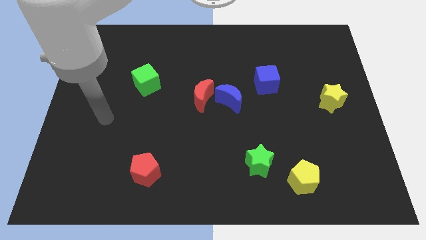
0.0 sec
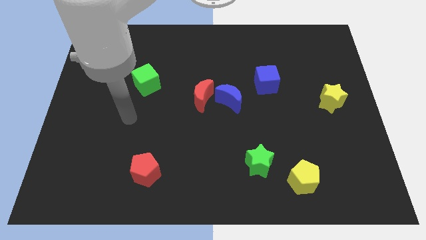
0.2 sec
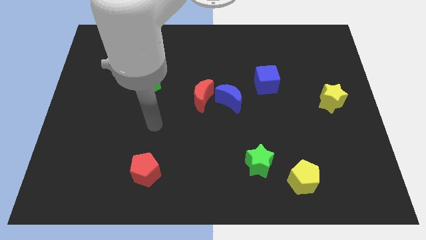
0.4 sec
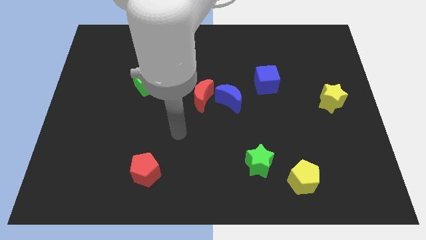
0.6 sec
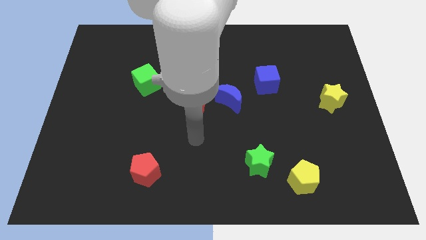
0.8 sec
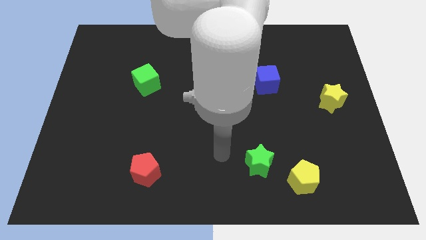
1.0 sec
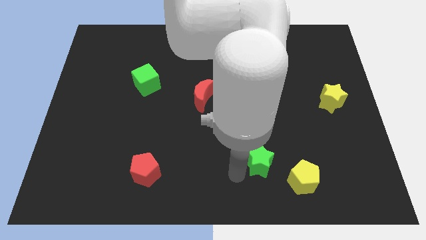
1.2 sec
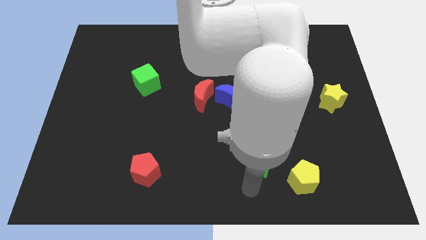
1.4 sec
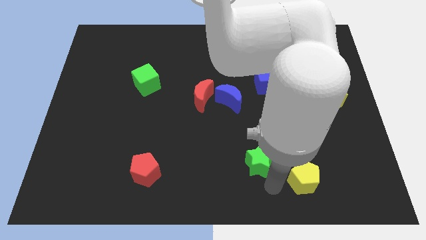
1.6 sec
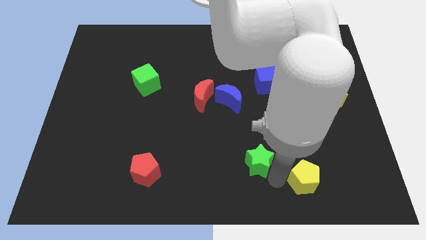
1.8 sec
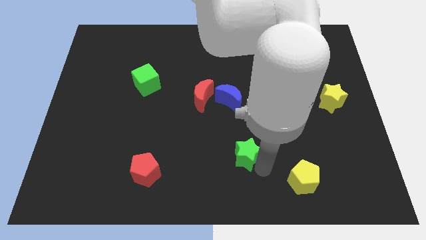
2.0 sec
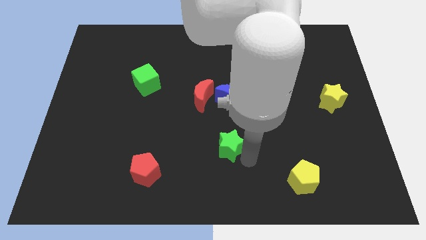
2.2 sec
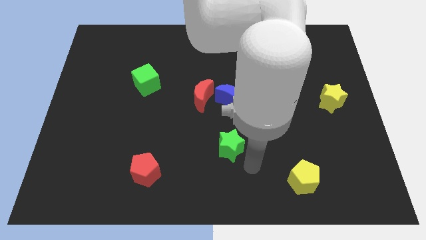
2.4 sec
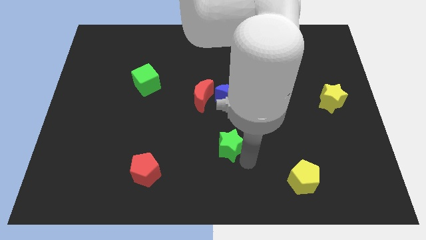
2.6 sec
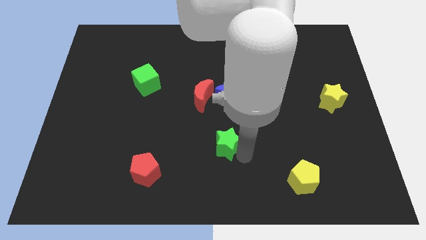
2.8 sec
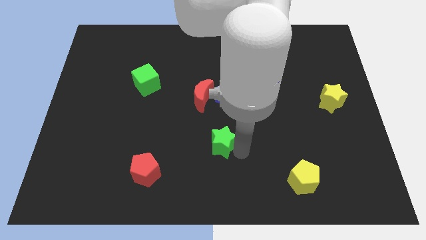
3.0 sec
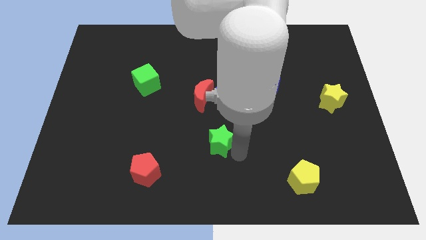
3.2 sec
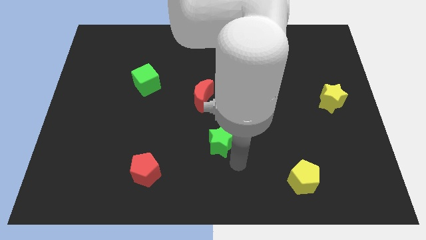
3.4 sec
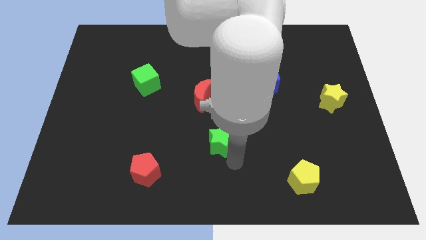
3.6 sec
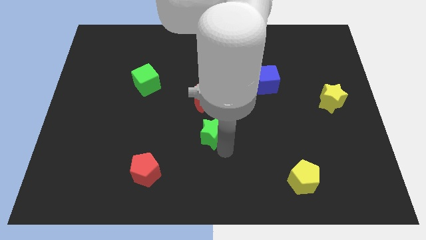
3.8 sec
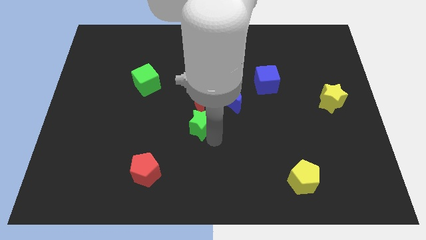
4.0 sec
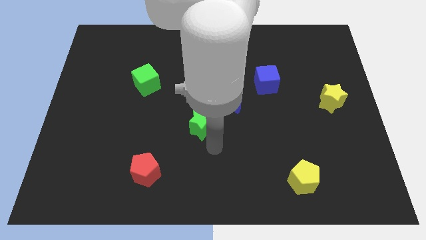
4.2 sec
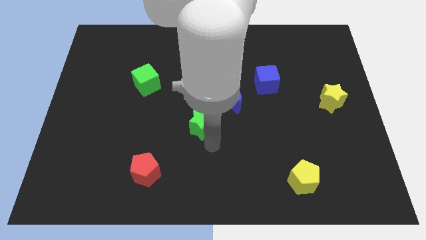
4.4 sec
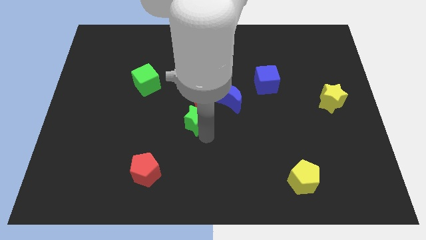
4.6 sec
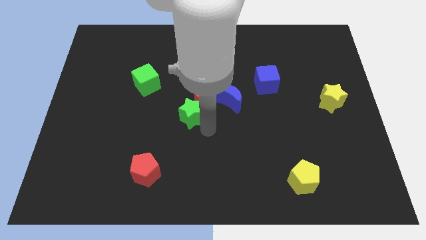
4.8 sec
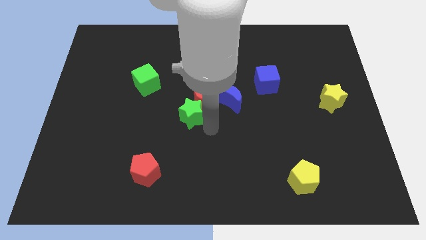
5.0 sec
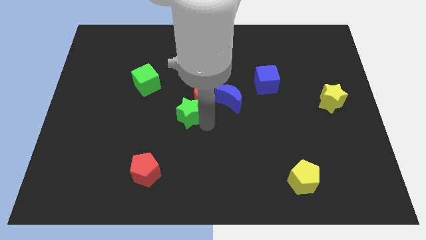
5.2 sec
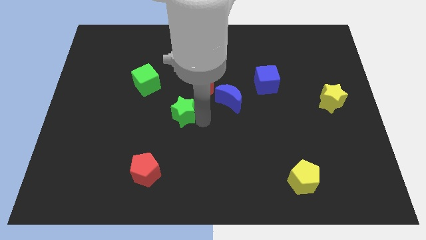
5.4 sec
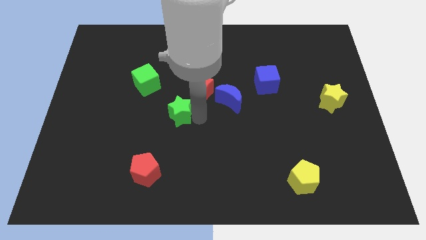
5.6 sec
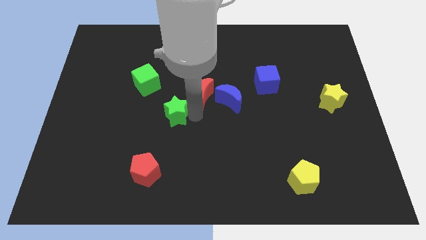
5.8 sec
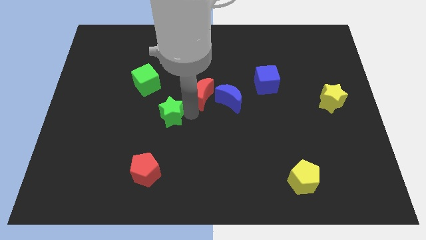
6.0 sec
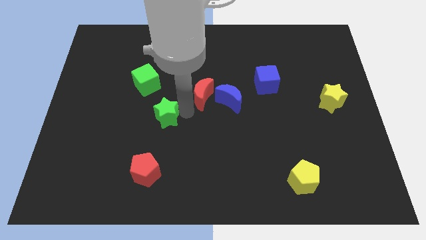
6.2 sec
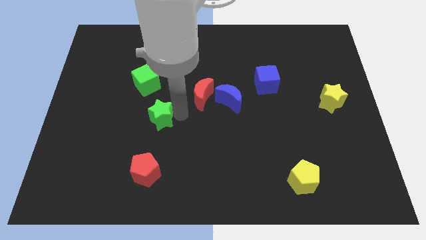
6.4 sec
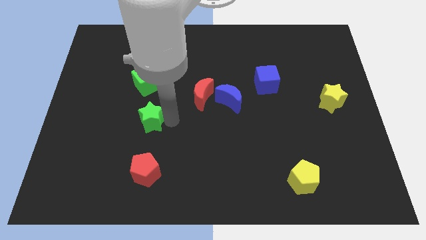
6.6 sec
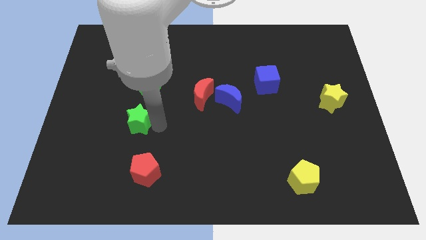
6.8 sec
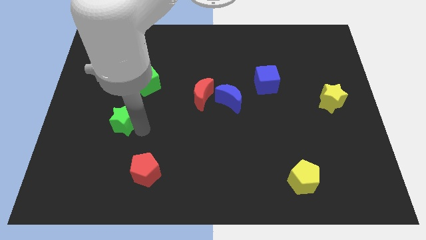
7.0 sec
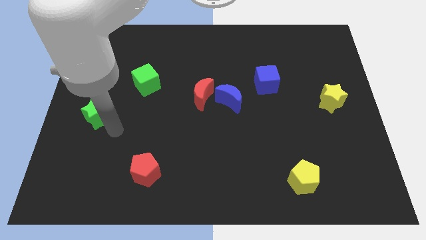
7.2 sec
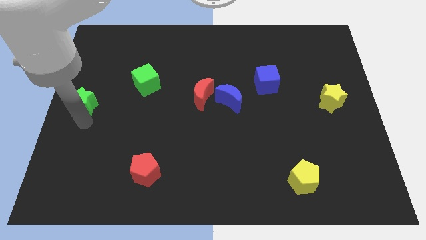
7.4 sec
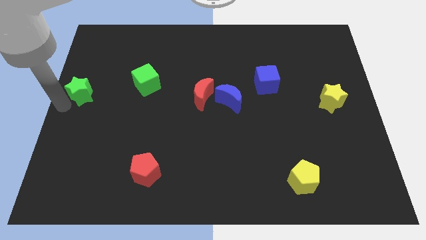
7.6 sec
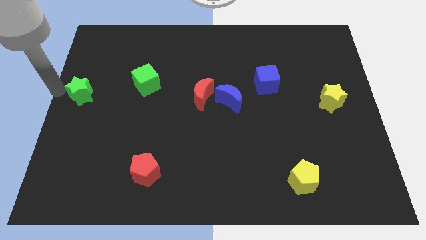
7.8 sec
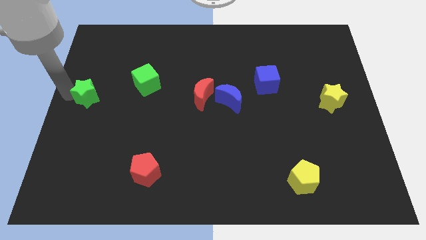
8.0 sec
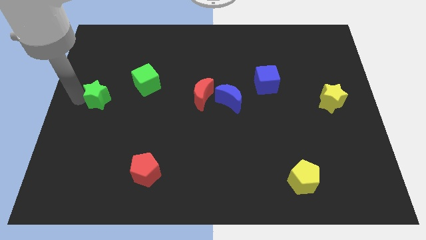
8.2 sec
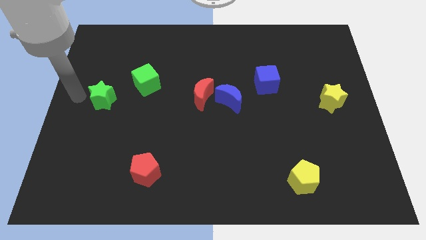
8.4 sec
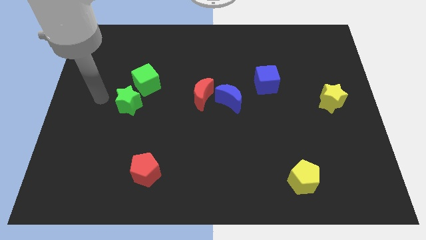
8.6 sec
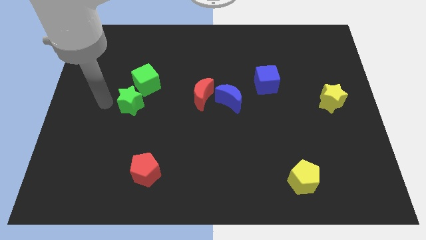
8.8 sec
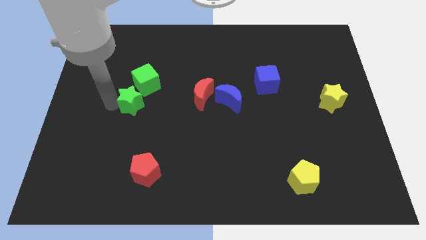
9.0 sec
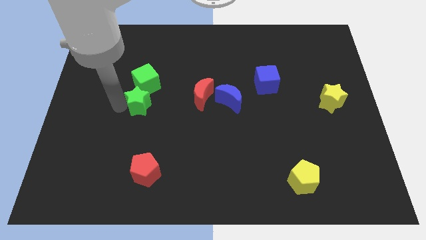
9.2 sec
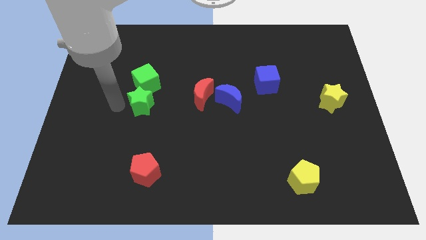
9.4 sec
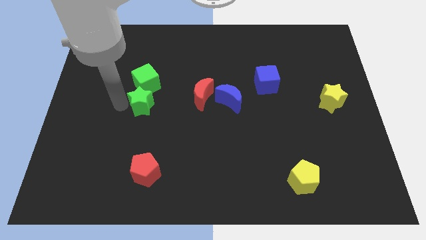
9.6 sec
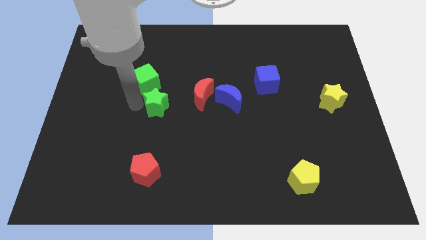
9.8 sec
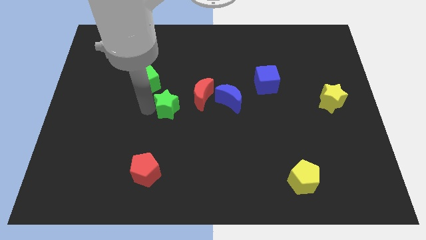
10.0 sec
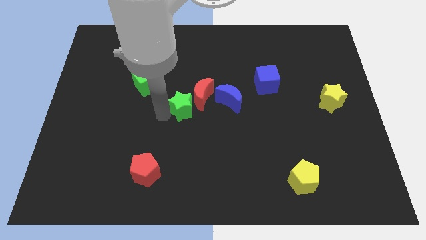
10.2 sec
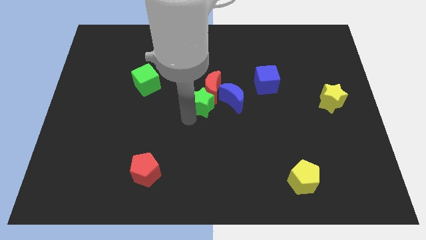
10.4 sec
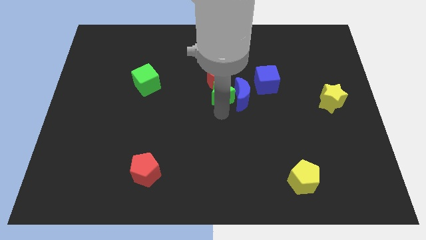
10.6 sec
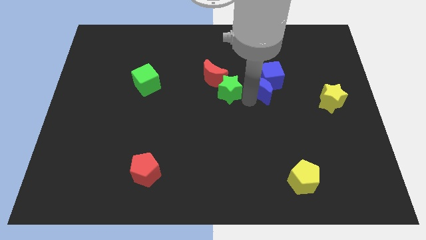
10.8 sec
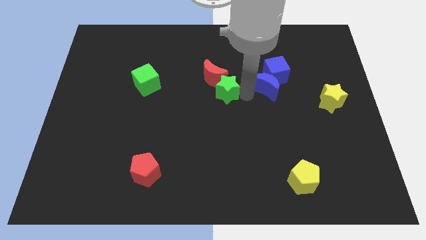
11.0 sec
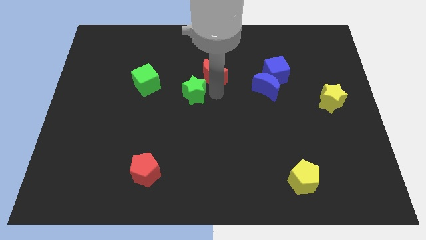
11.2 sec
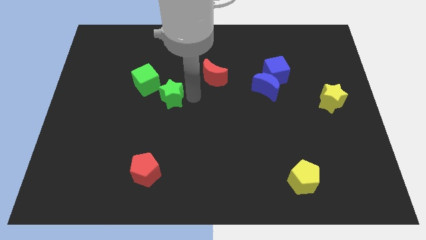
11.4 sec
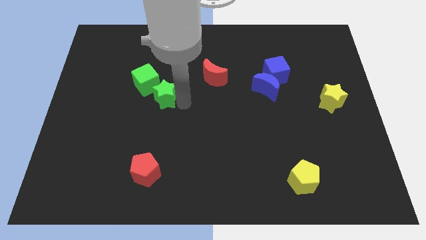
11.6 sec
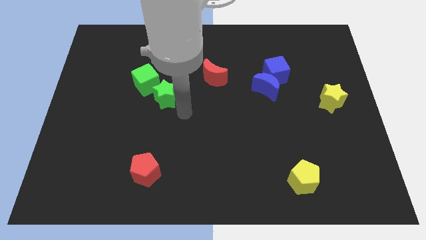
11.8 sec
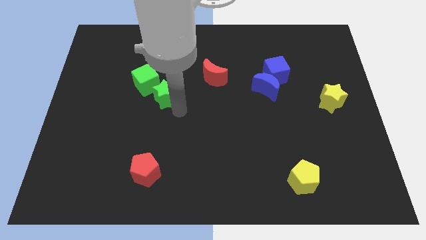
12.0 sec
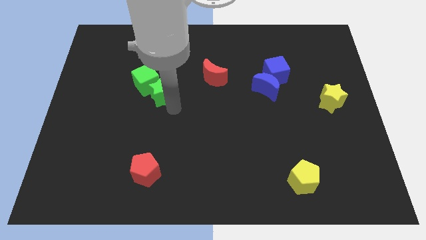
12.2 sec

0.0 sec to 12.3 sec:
slide the green star to the green cube

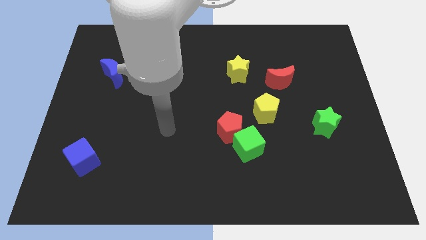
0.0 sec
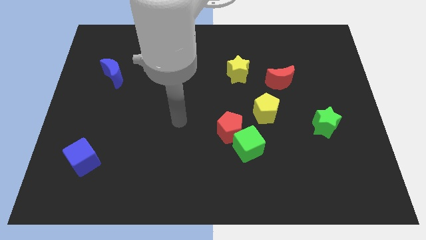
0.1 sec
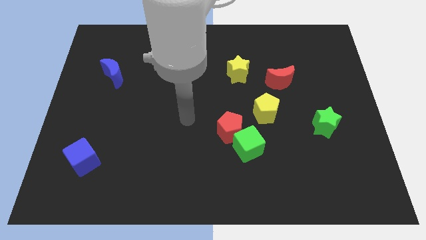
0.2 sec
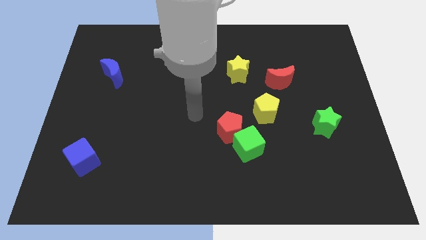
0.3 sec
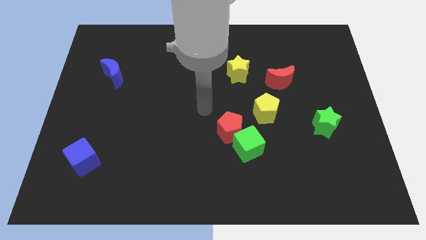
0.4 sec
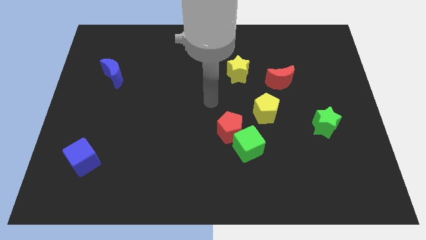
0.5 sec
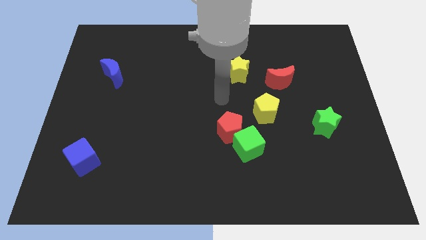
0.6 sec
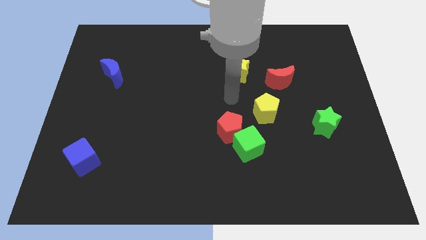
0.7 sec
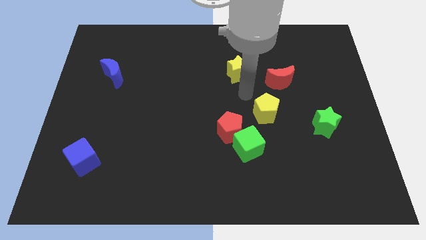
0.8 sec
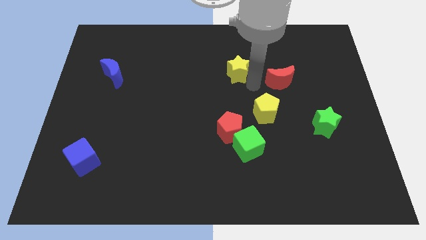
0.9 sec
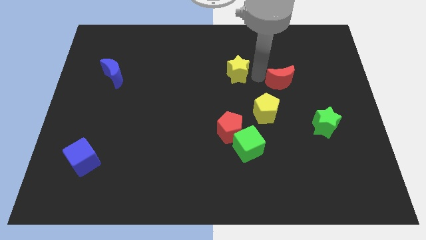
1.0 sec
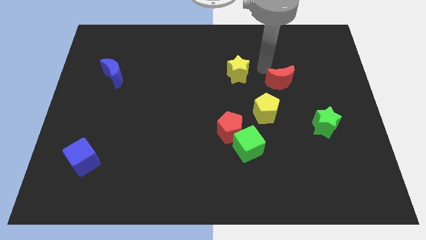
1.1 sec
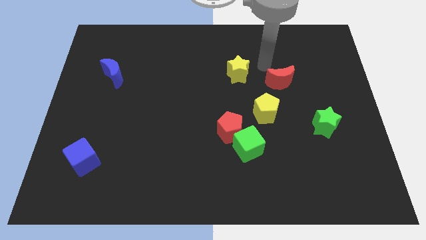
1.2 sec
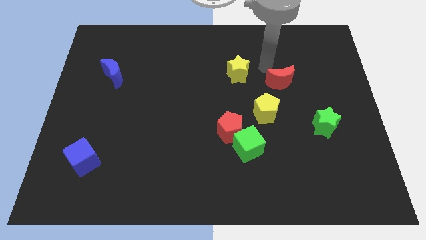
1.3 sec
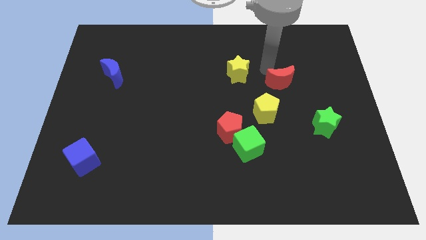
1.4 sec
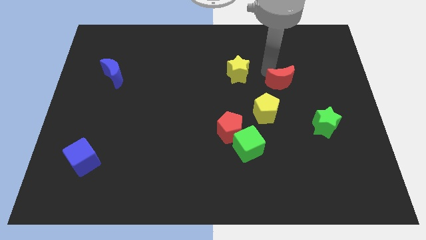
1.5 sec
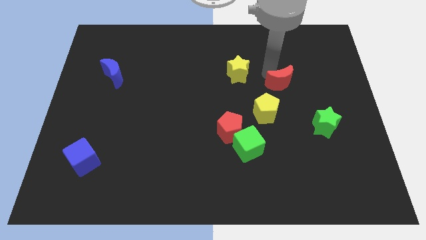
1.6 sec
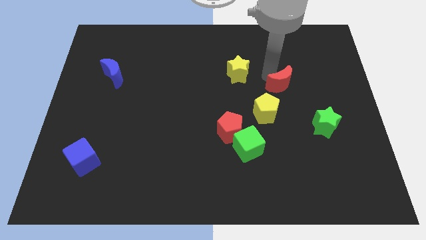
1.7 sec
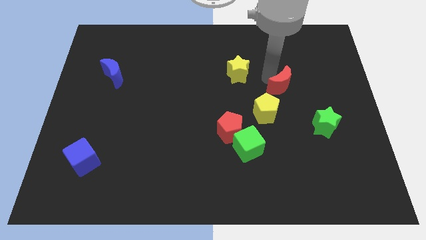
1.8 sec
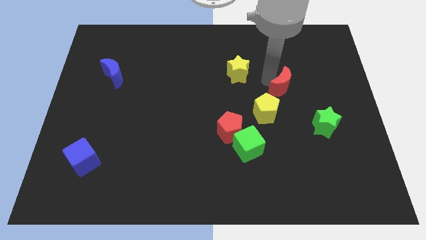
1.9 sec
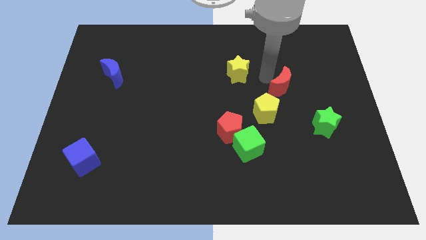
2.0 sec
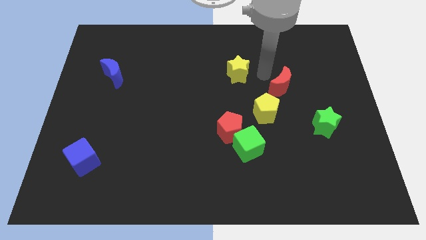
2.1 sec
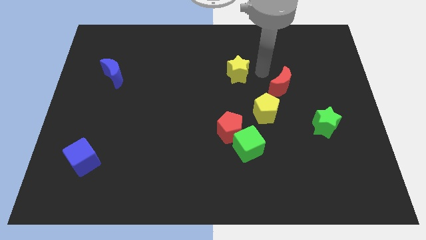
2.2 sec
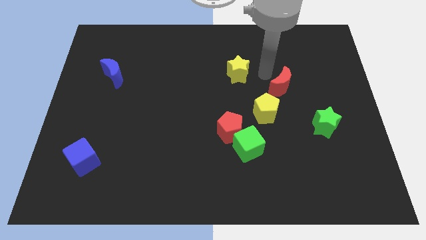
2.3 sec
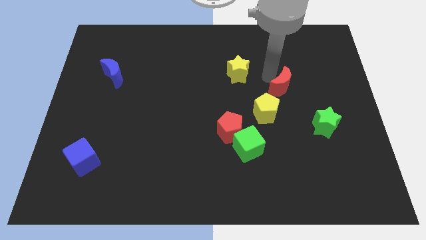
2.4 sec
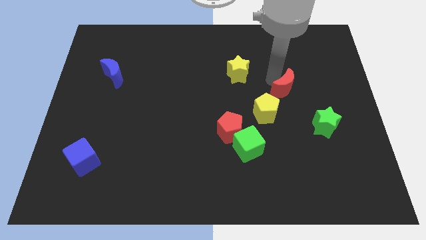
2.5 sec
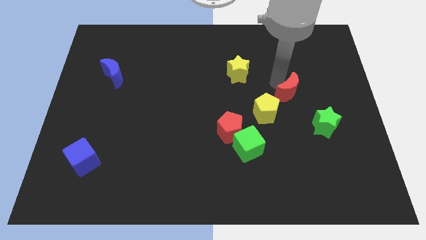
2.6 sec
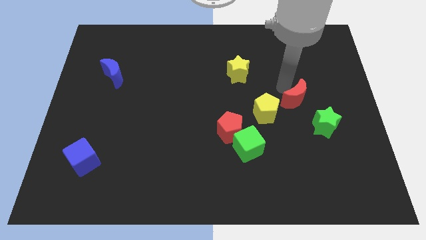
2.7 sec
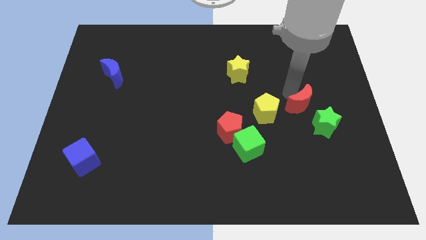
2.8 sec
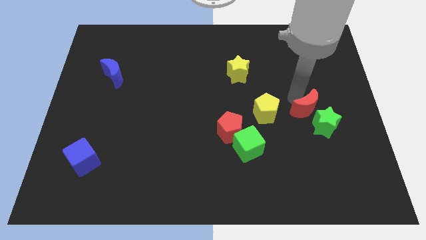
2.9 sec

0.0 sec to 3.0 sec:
put the red moon towards the green star
